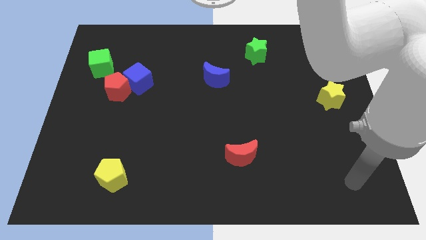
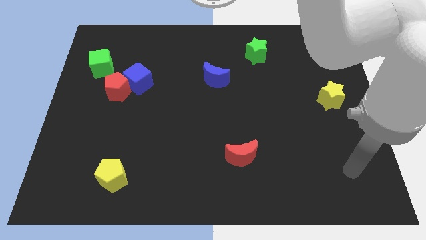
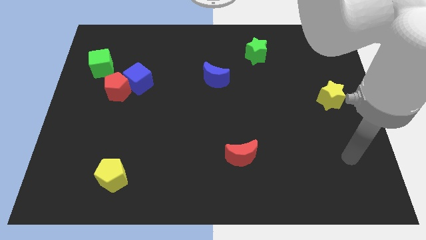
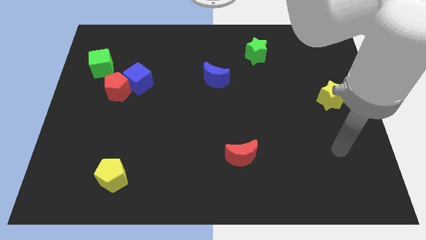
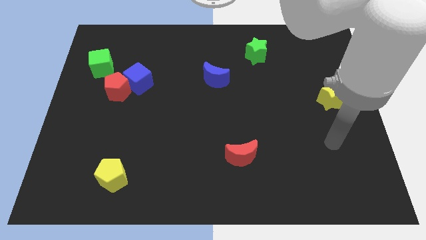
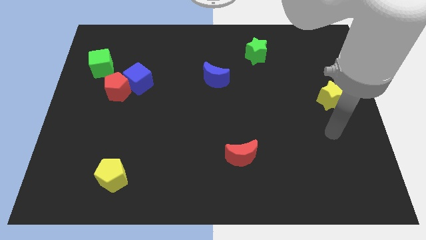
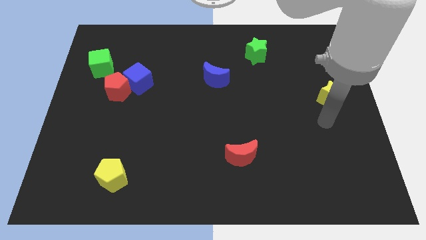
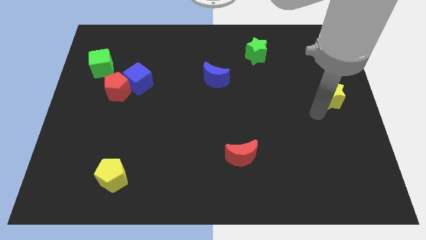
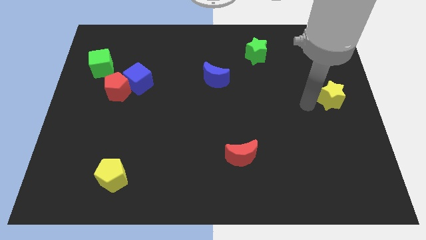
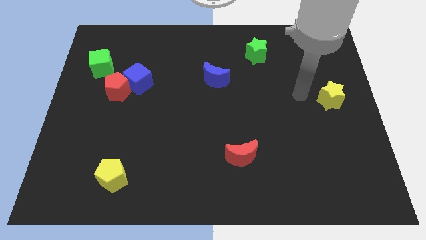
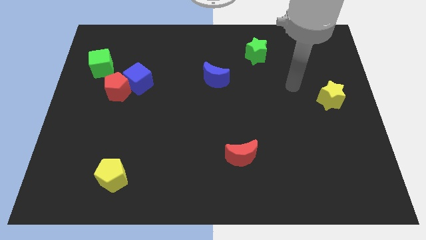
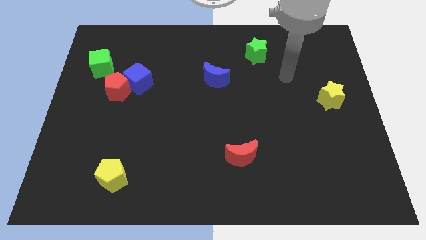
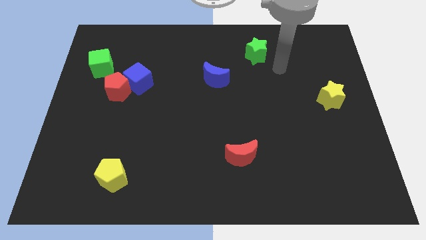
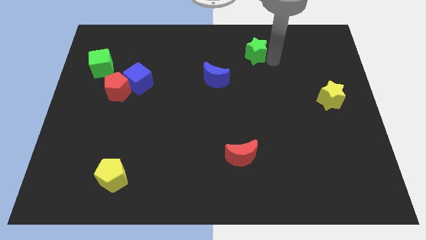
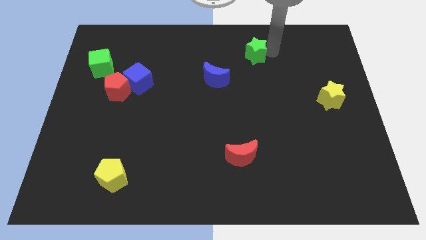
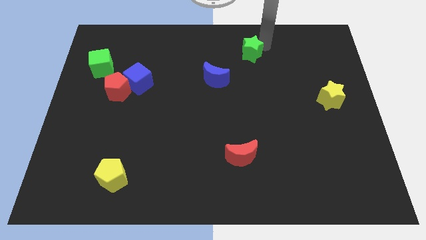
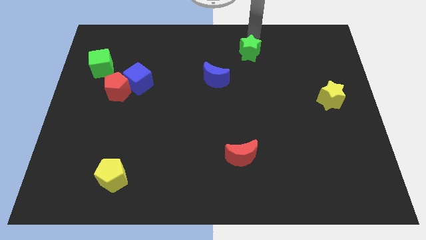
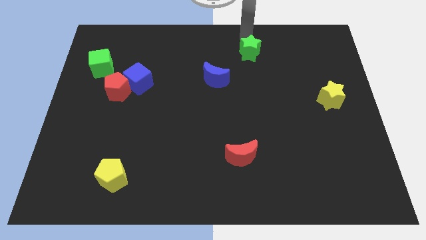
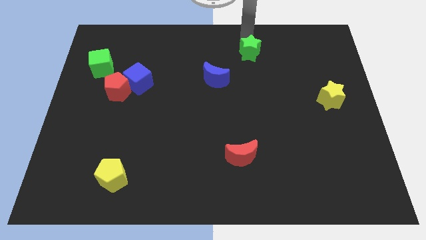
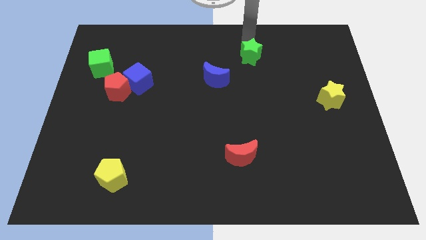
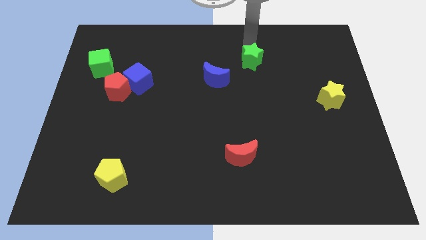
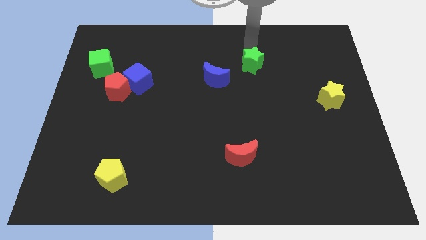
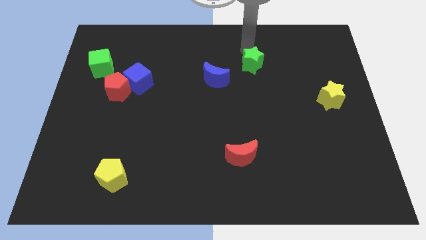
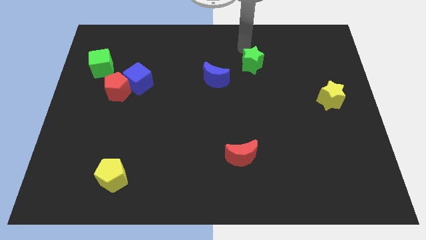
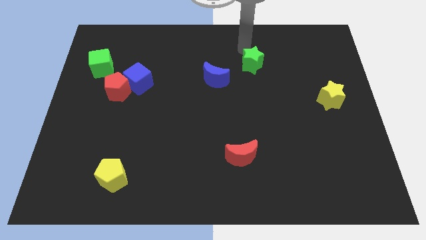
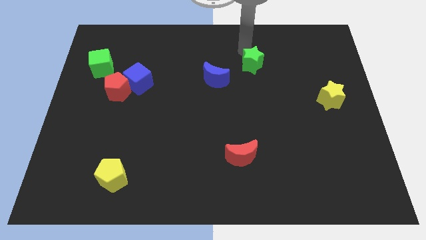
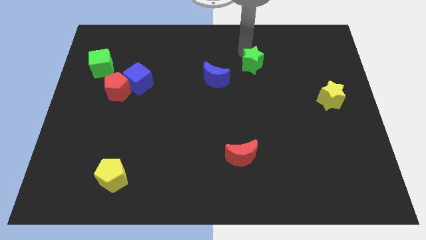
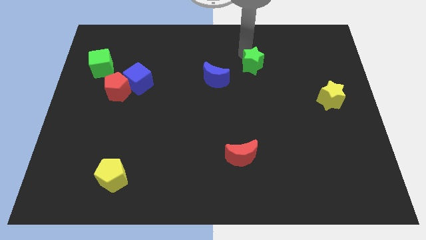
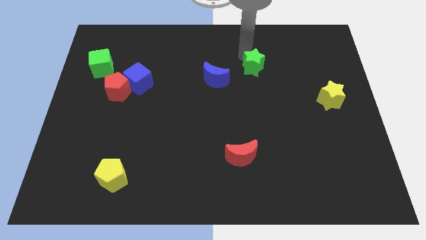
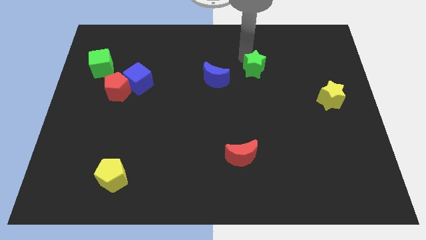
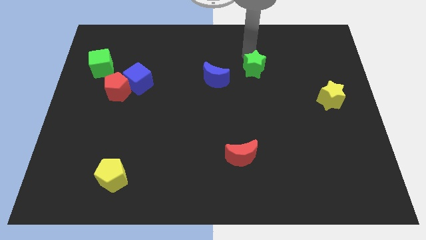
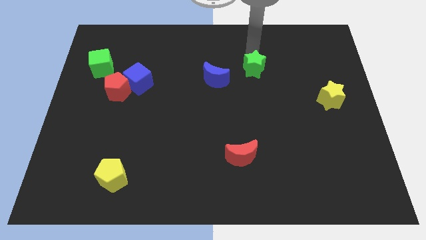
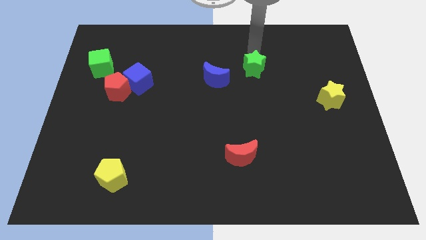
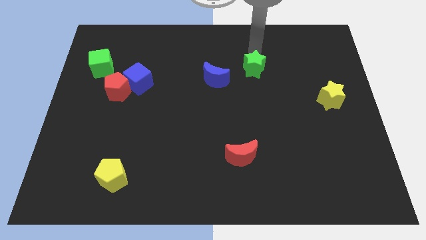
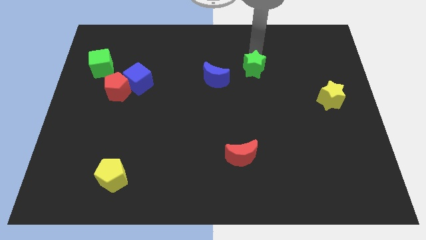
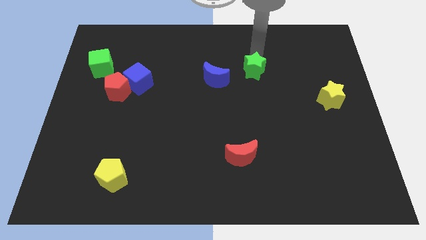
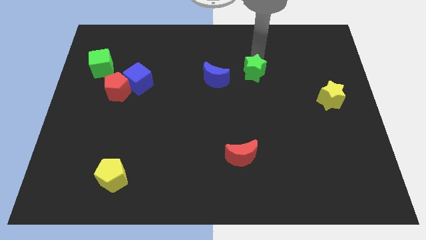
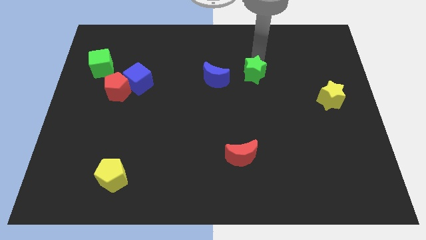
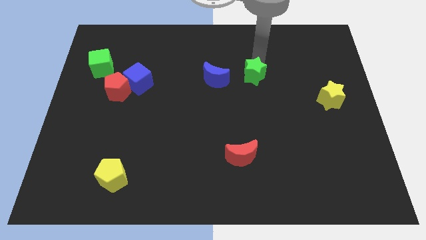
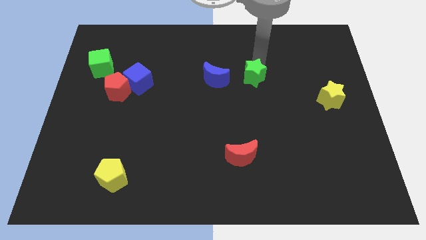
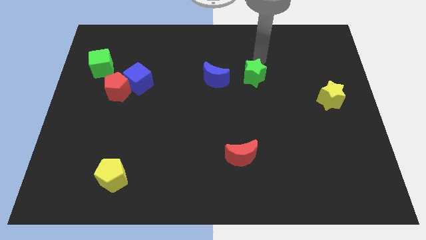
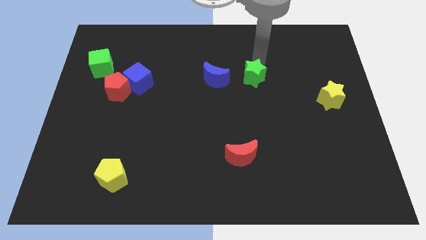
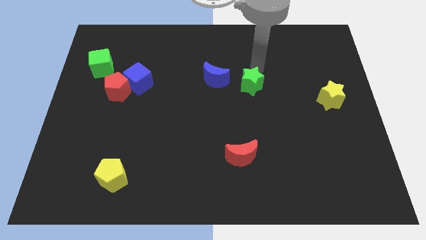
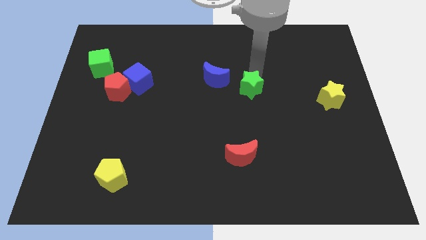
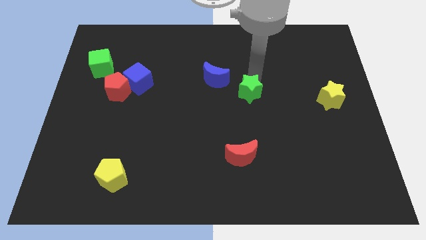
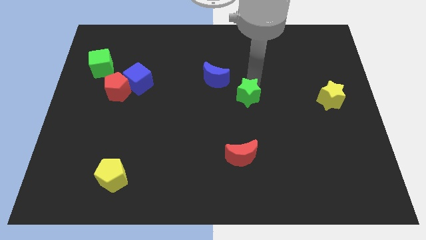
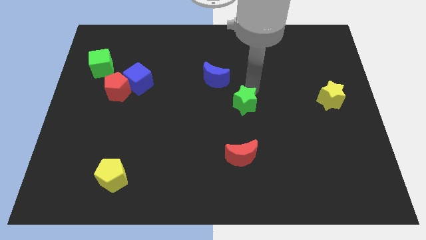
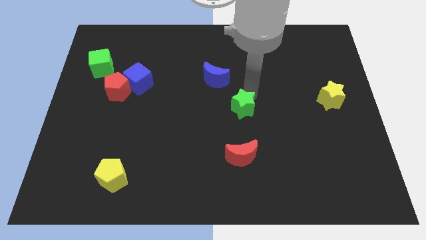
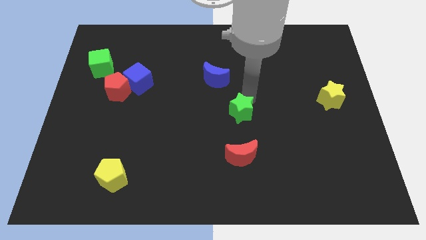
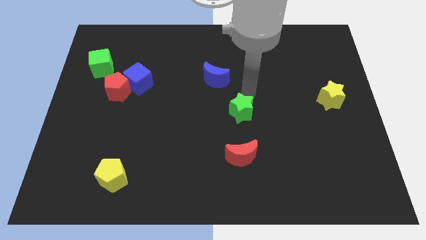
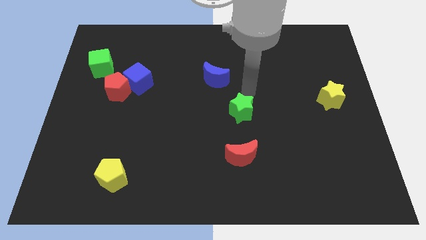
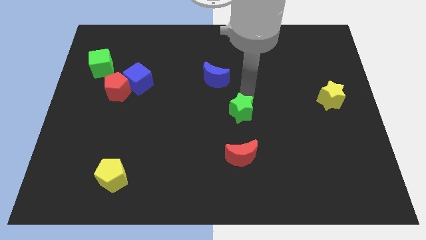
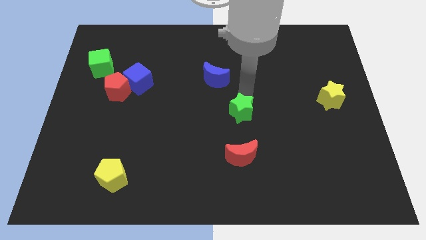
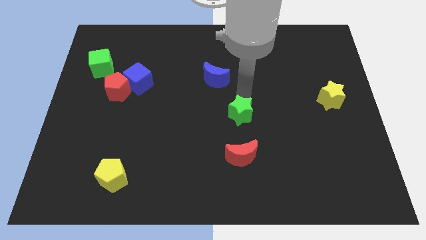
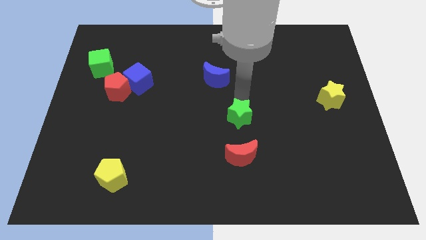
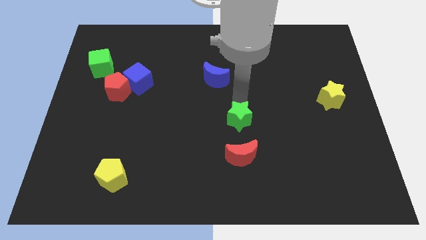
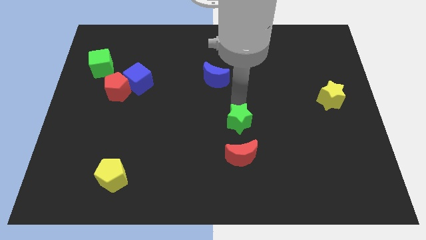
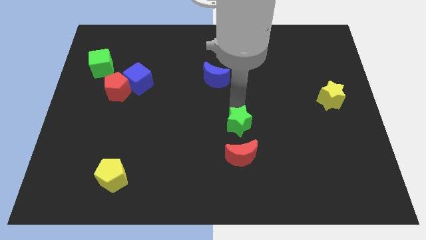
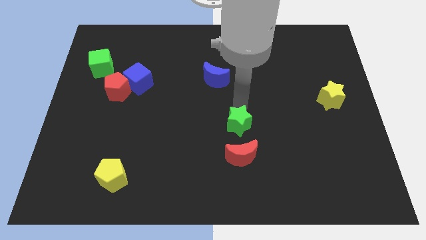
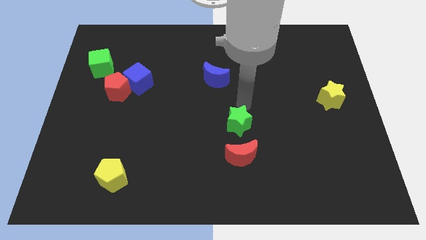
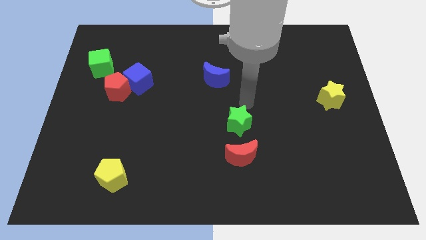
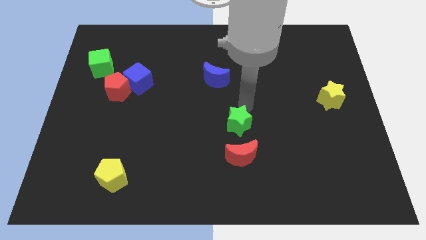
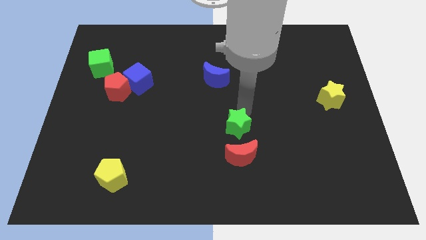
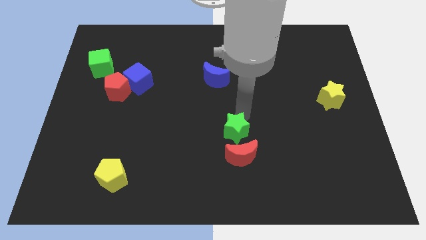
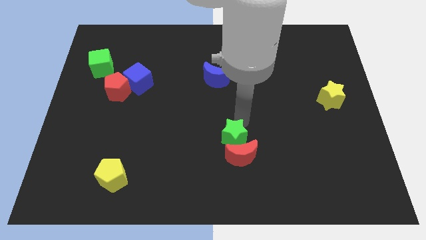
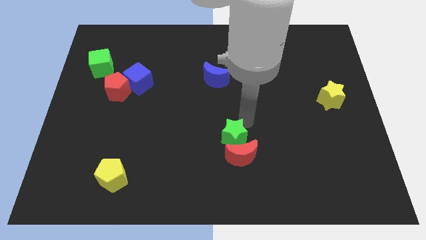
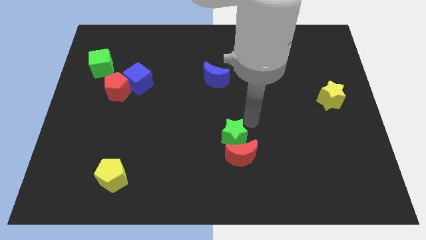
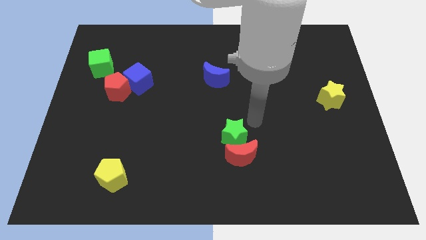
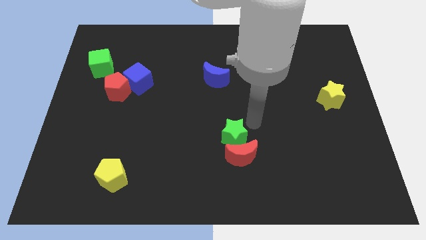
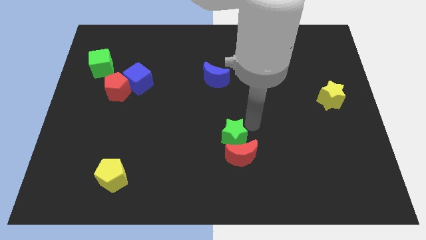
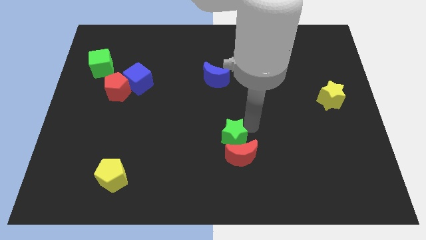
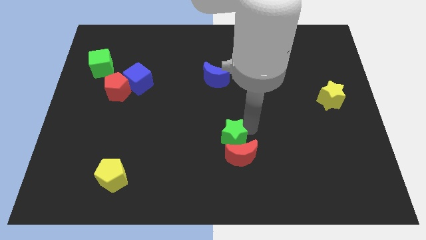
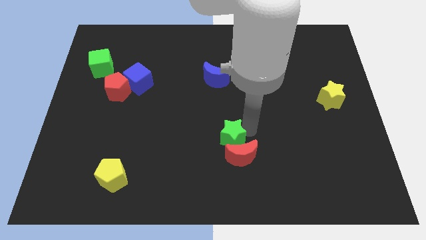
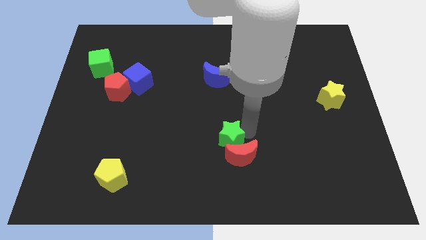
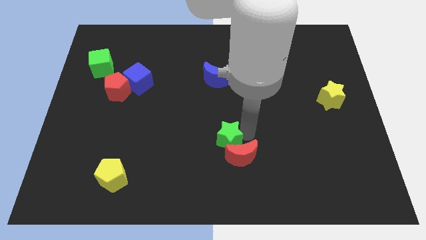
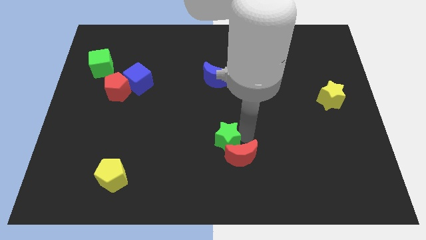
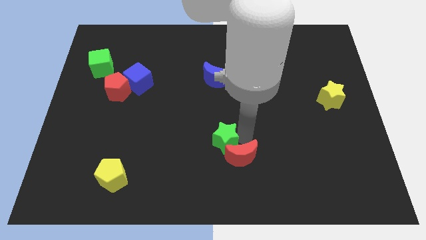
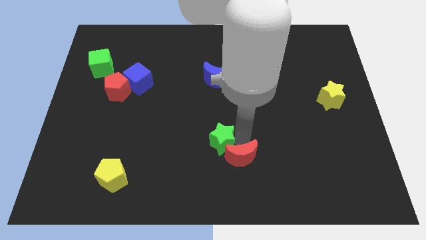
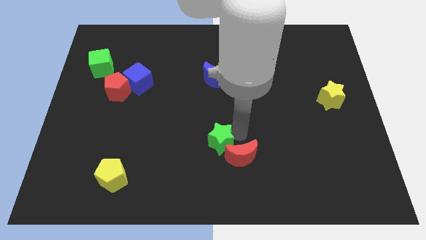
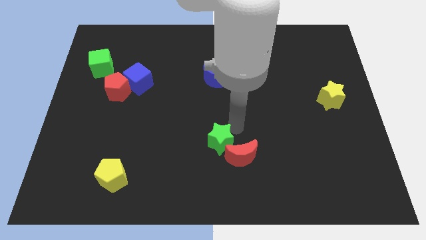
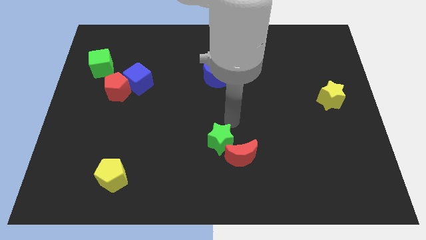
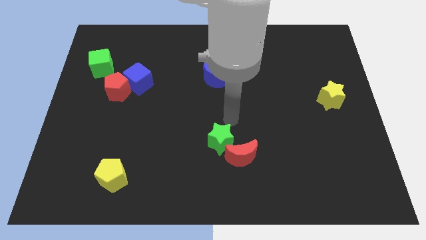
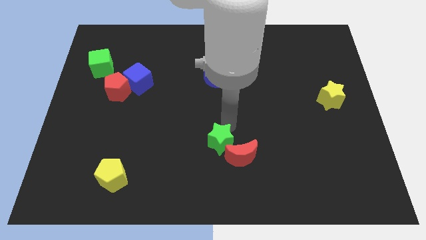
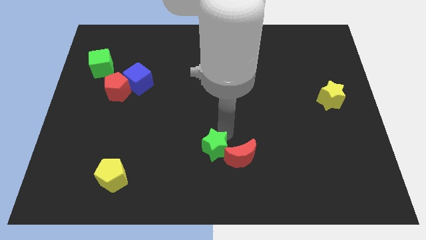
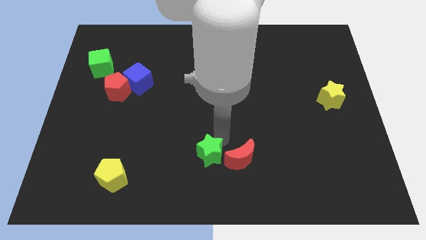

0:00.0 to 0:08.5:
push the green star to the bottom
